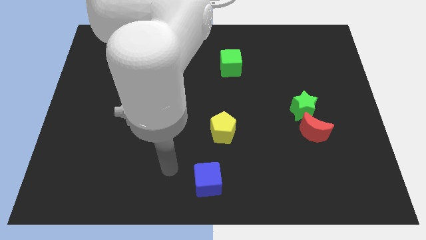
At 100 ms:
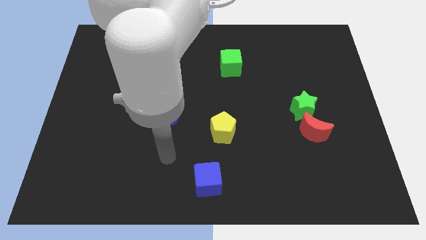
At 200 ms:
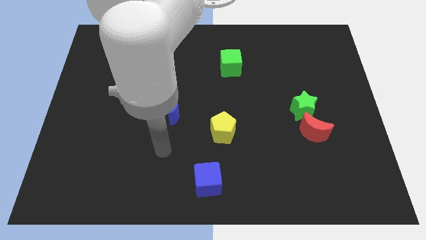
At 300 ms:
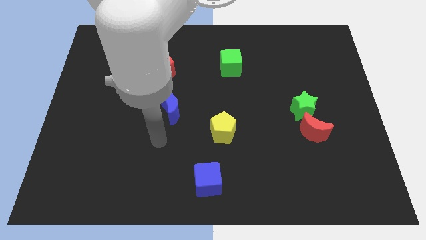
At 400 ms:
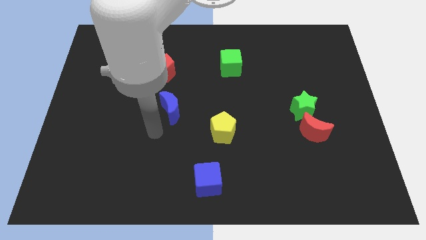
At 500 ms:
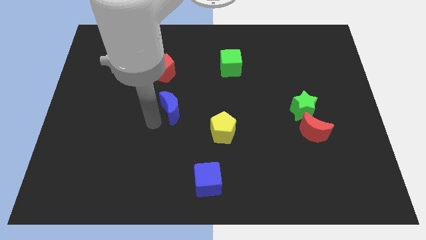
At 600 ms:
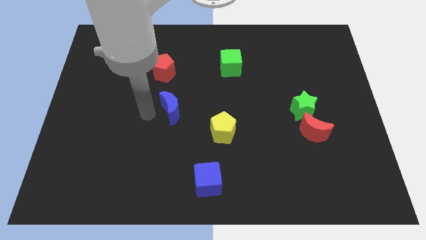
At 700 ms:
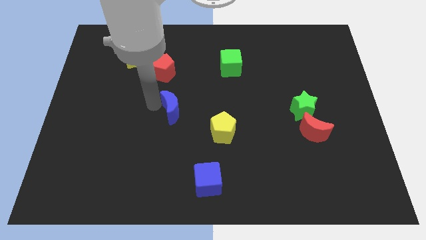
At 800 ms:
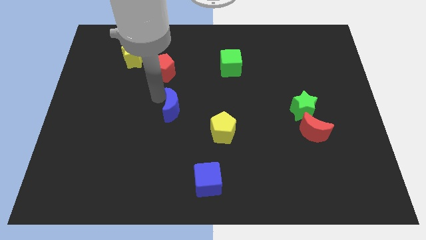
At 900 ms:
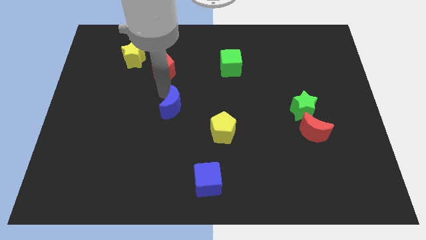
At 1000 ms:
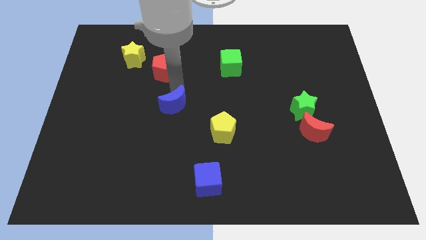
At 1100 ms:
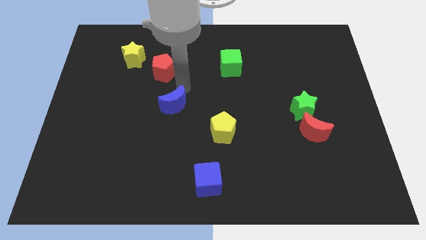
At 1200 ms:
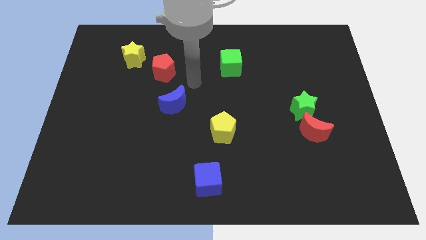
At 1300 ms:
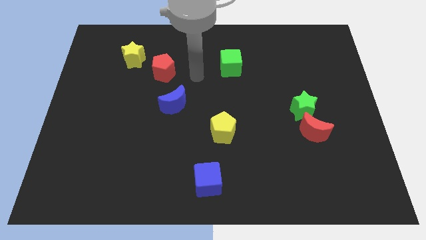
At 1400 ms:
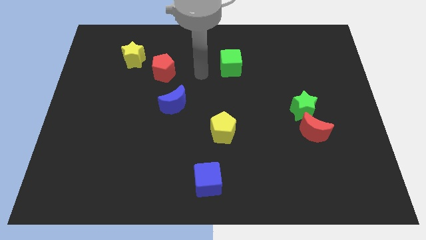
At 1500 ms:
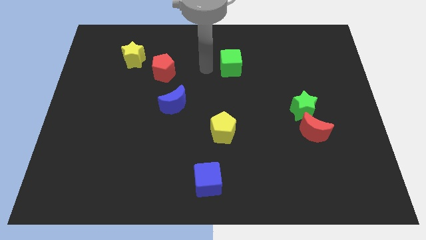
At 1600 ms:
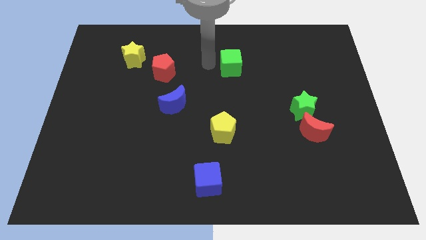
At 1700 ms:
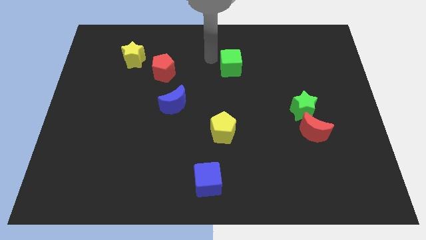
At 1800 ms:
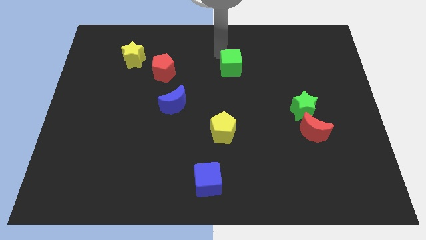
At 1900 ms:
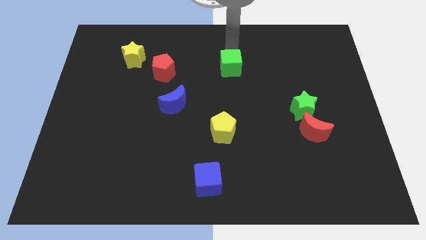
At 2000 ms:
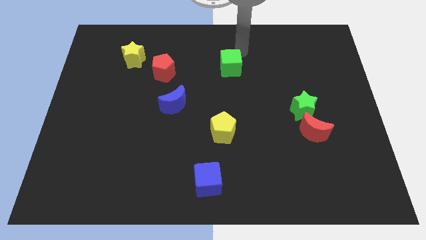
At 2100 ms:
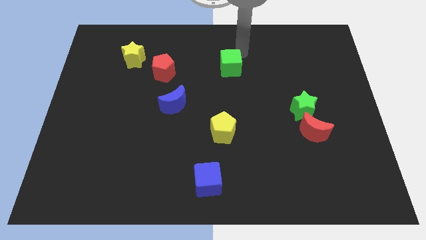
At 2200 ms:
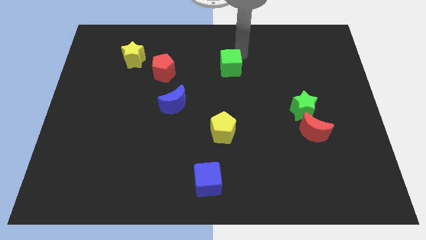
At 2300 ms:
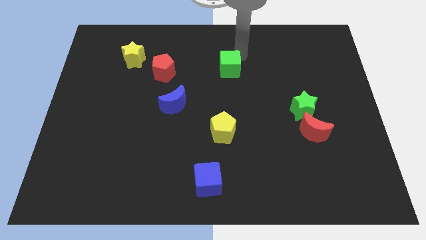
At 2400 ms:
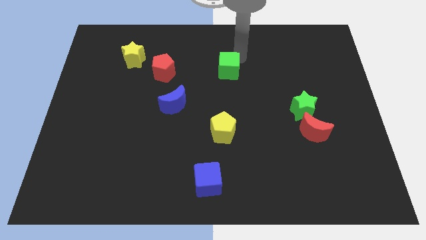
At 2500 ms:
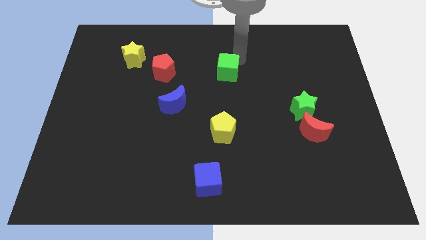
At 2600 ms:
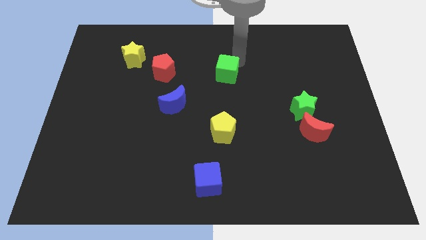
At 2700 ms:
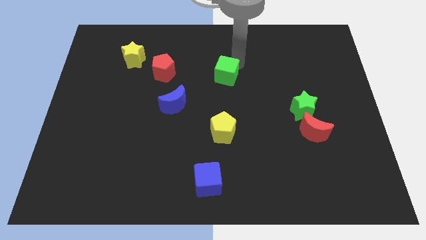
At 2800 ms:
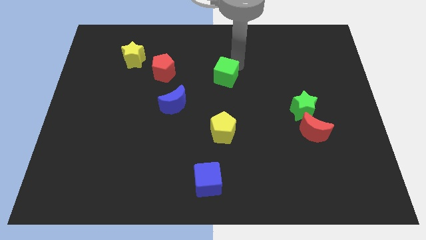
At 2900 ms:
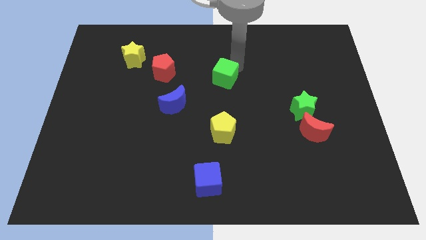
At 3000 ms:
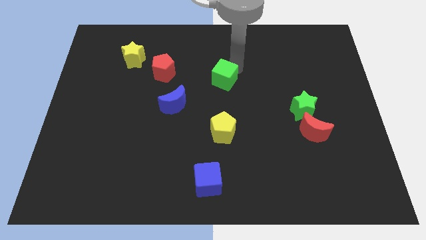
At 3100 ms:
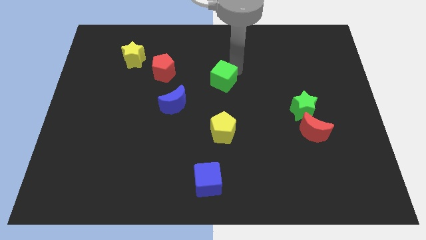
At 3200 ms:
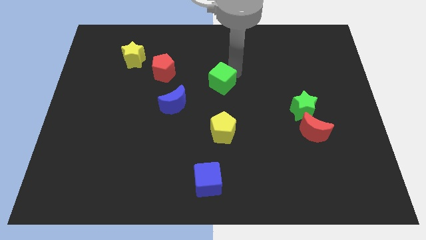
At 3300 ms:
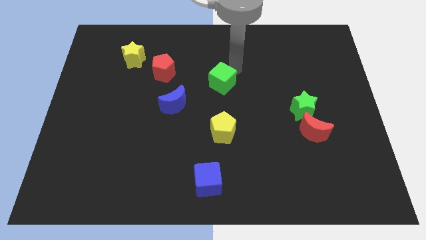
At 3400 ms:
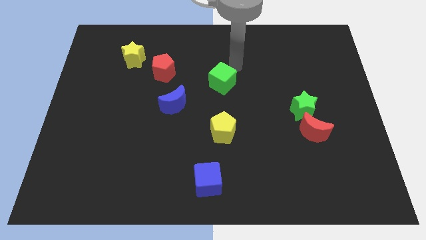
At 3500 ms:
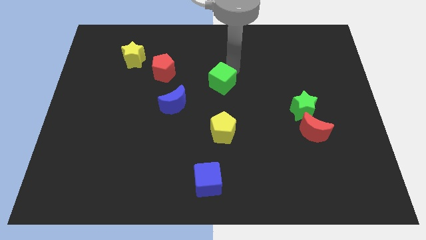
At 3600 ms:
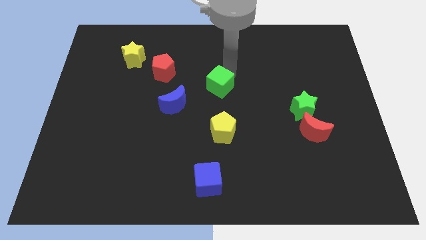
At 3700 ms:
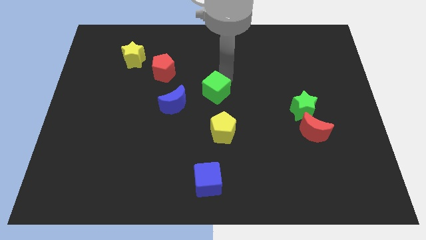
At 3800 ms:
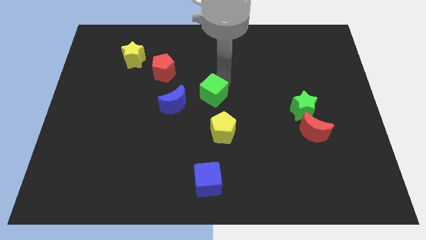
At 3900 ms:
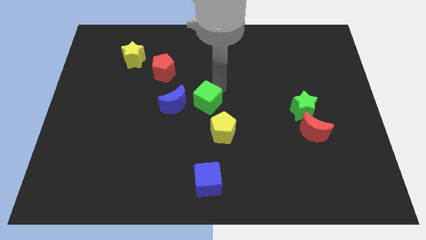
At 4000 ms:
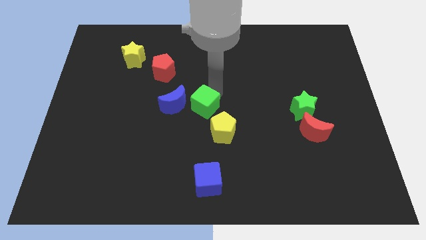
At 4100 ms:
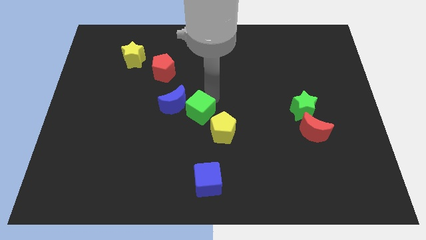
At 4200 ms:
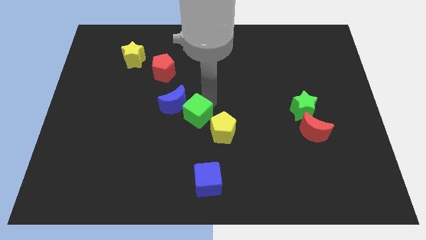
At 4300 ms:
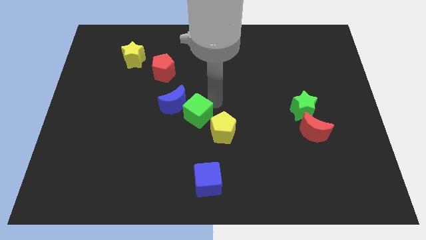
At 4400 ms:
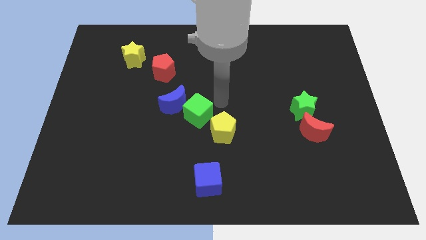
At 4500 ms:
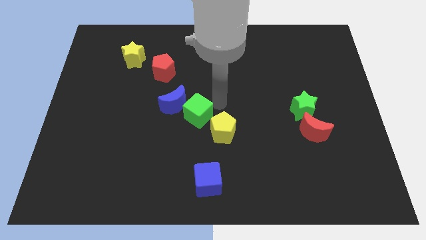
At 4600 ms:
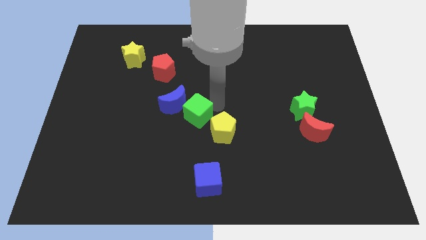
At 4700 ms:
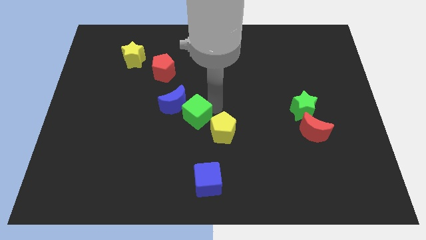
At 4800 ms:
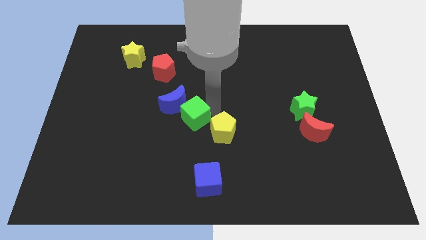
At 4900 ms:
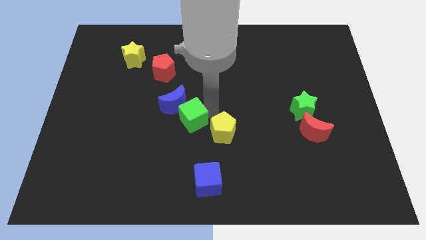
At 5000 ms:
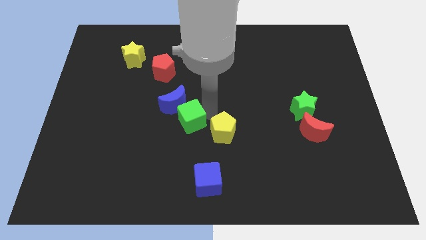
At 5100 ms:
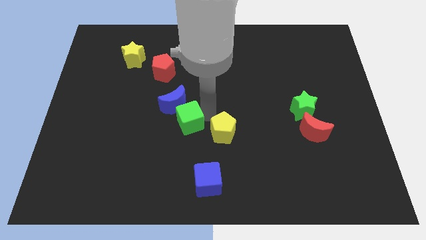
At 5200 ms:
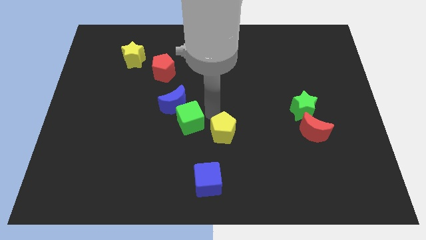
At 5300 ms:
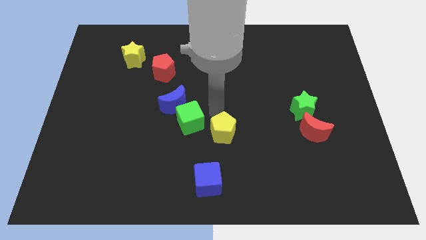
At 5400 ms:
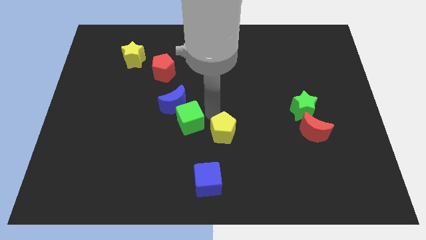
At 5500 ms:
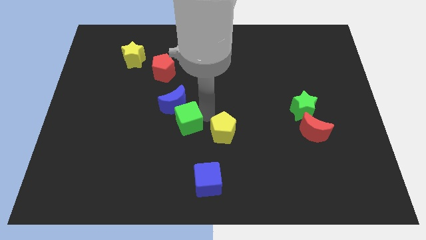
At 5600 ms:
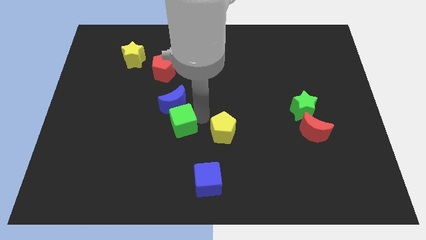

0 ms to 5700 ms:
push the green cube down and to the left

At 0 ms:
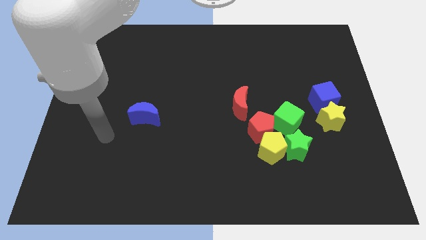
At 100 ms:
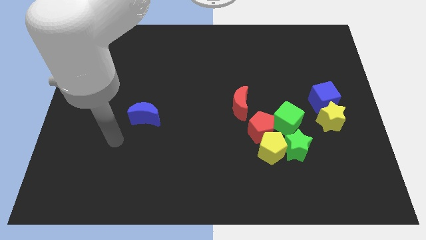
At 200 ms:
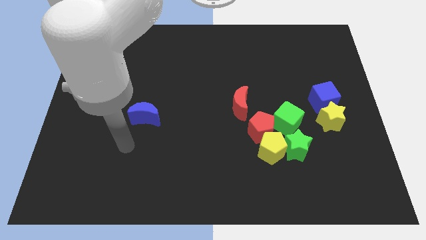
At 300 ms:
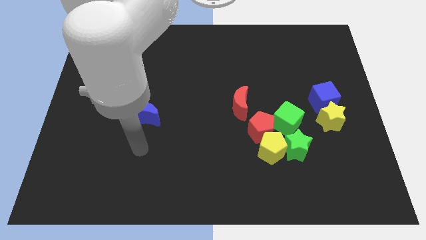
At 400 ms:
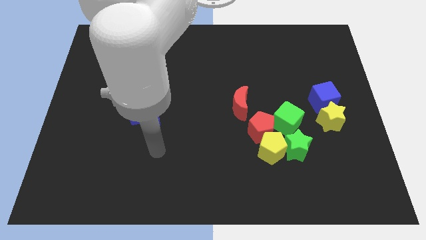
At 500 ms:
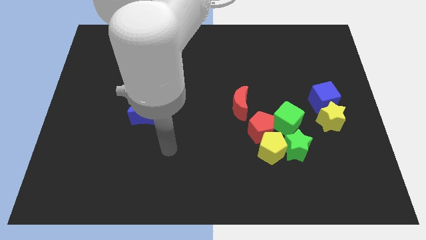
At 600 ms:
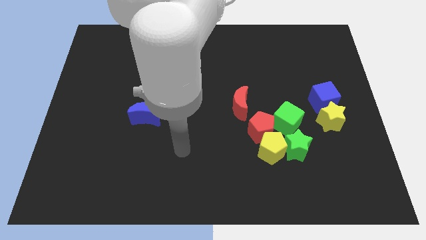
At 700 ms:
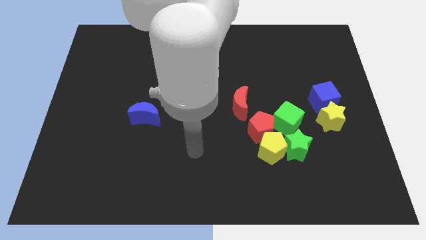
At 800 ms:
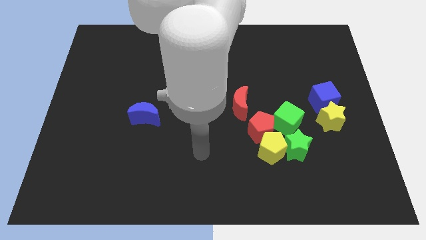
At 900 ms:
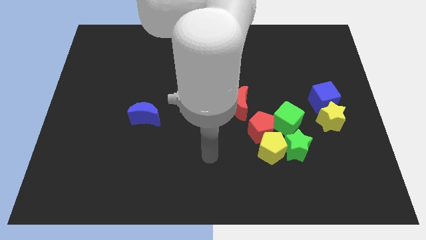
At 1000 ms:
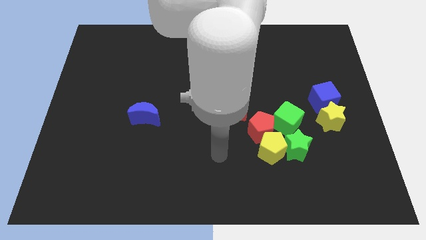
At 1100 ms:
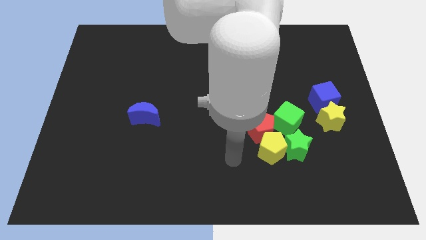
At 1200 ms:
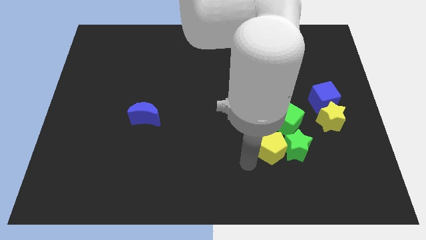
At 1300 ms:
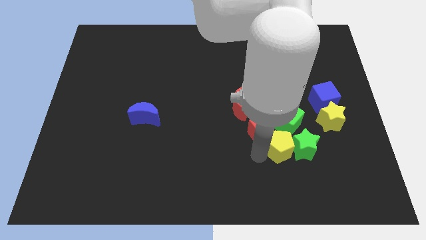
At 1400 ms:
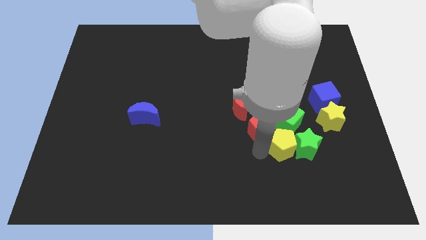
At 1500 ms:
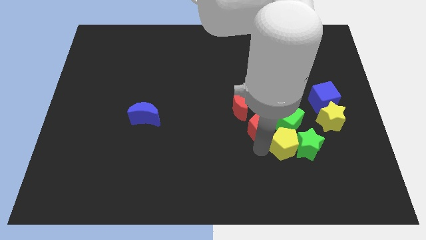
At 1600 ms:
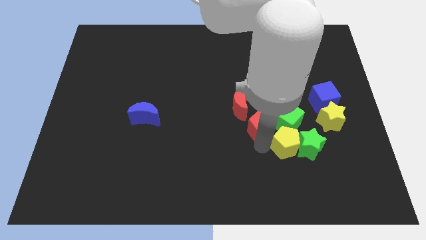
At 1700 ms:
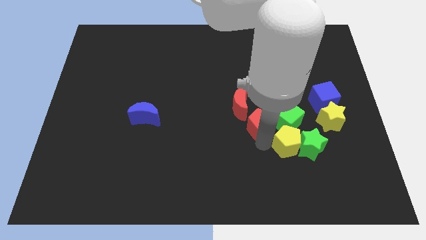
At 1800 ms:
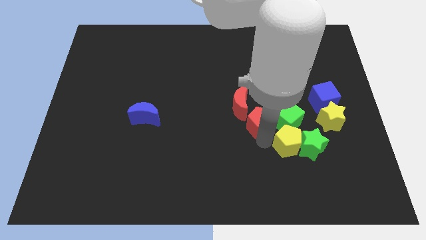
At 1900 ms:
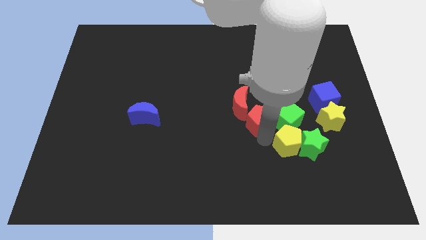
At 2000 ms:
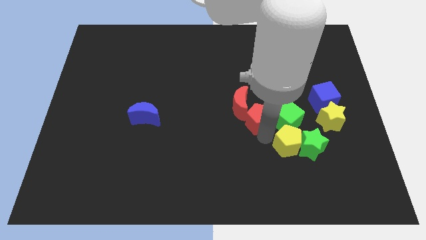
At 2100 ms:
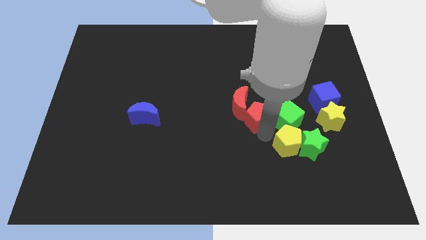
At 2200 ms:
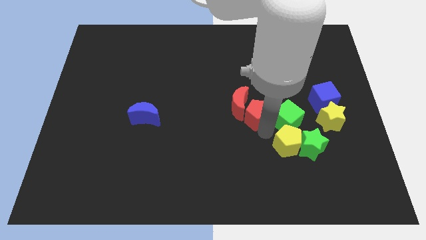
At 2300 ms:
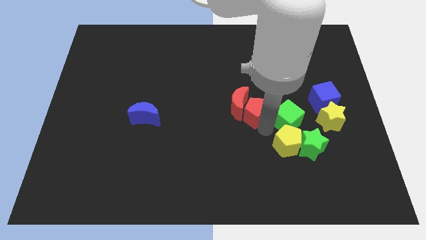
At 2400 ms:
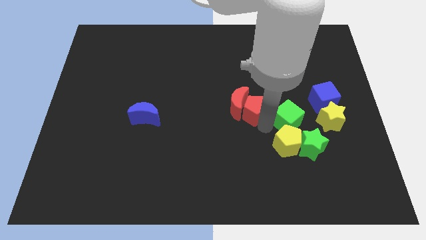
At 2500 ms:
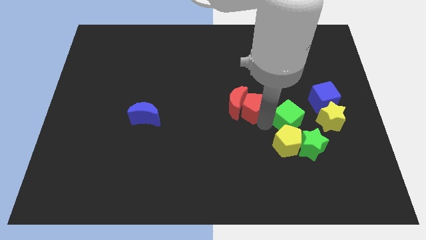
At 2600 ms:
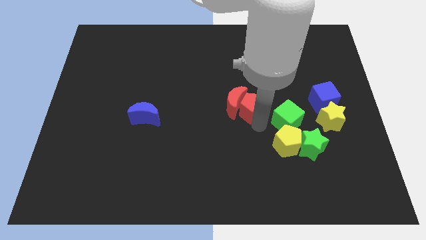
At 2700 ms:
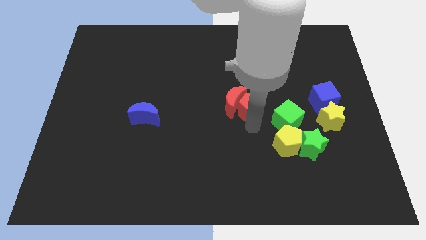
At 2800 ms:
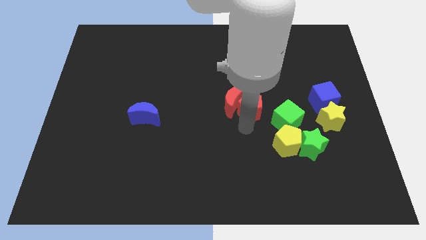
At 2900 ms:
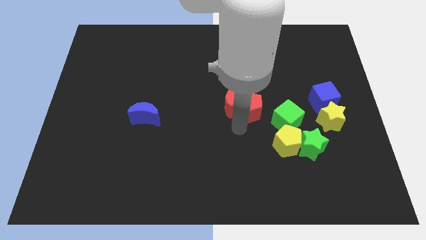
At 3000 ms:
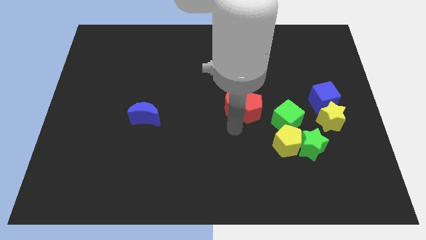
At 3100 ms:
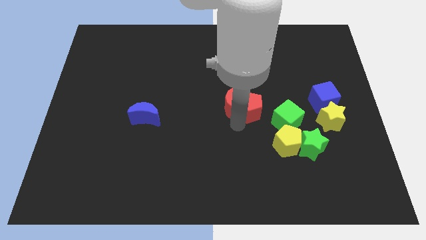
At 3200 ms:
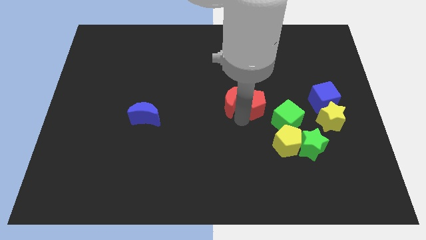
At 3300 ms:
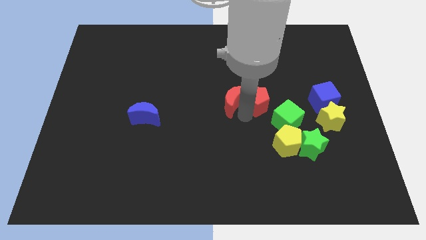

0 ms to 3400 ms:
push the red pentagon upwards a bit
